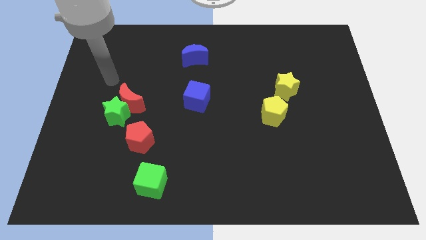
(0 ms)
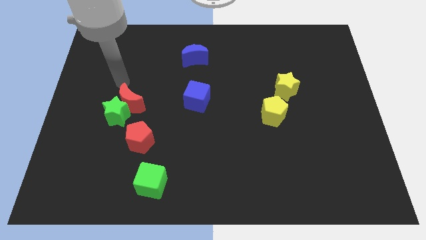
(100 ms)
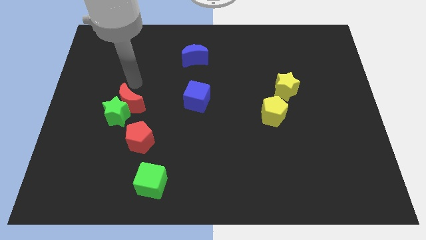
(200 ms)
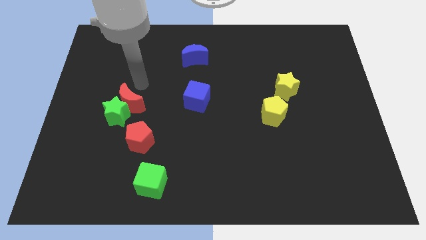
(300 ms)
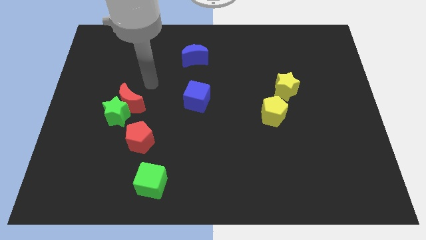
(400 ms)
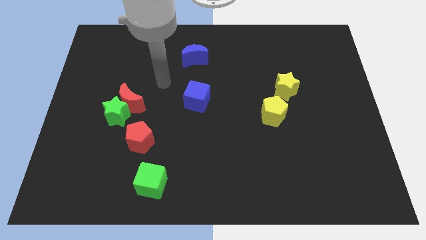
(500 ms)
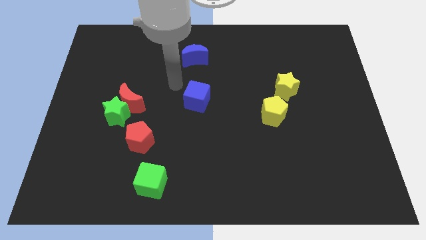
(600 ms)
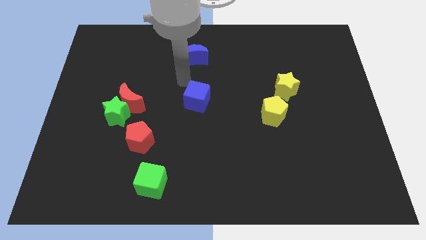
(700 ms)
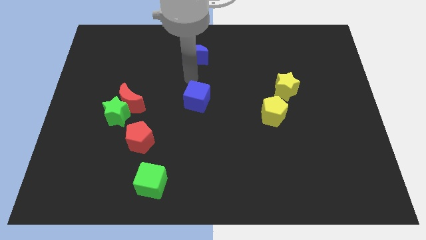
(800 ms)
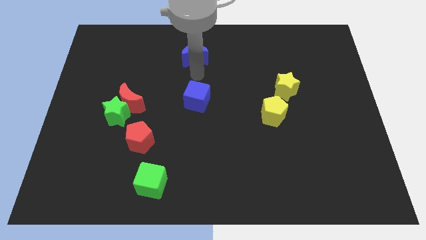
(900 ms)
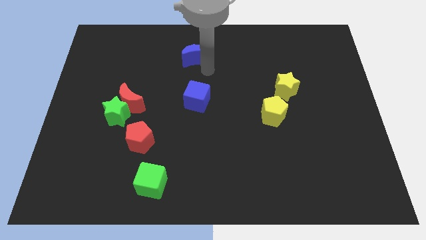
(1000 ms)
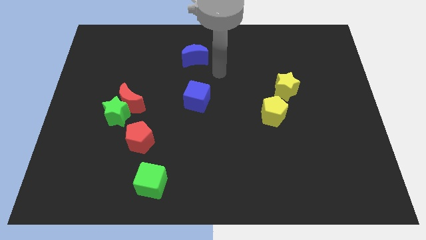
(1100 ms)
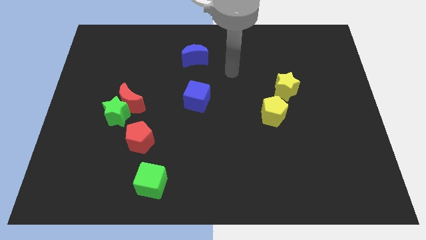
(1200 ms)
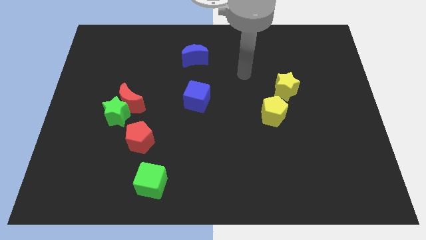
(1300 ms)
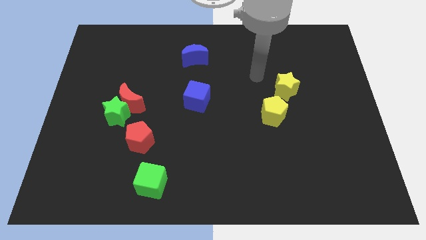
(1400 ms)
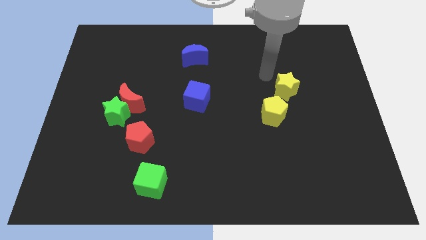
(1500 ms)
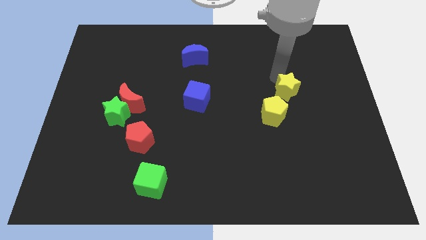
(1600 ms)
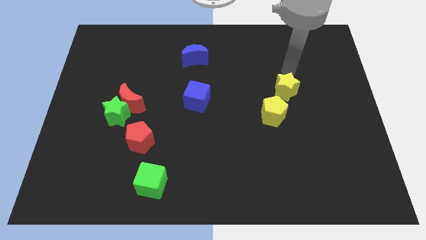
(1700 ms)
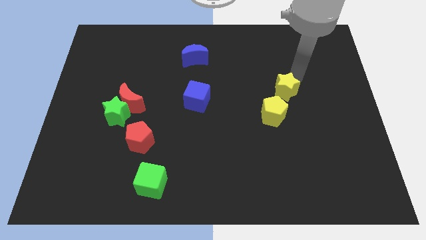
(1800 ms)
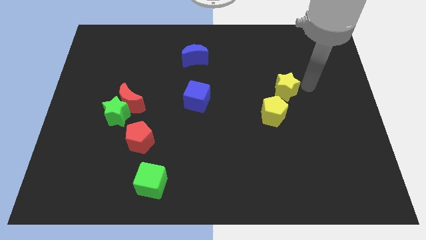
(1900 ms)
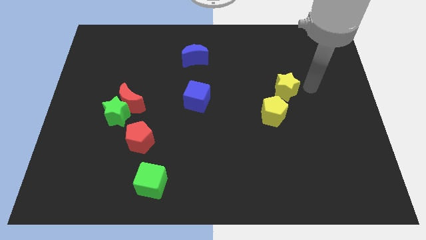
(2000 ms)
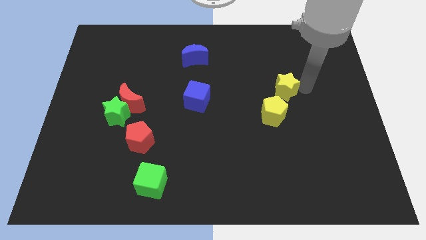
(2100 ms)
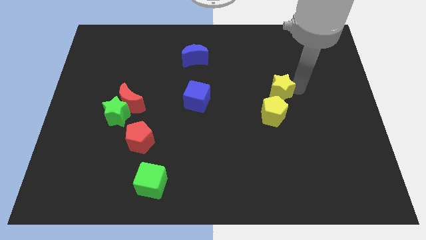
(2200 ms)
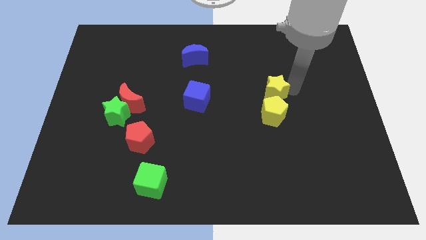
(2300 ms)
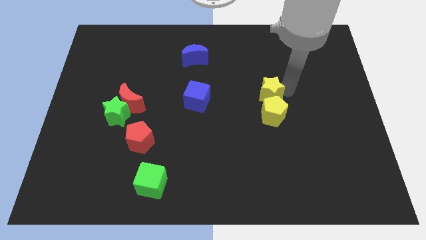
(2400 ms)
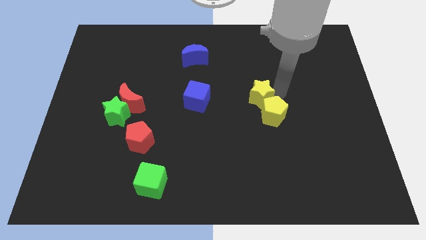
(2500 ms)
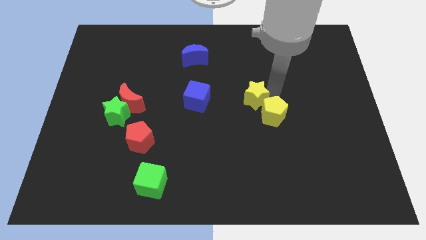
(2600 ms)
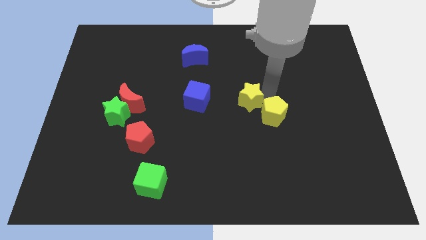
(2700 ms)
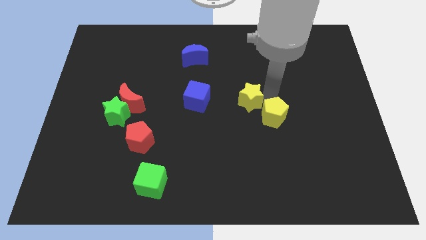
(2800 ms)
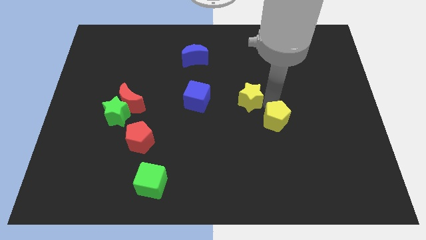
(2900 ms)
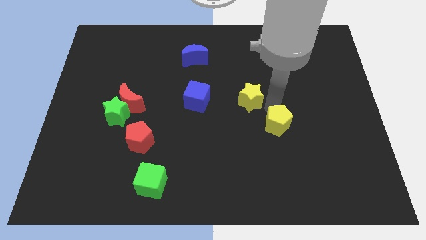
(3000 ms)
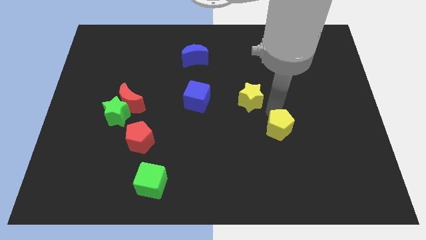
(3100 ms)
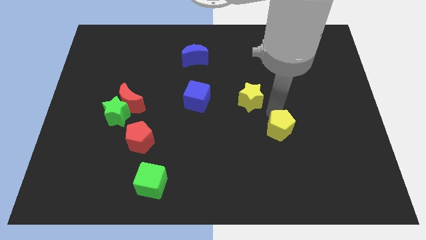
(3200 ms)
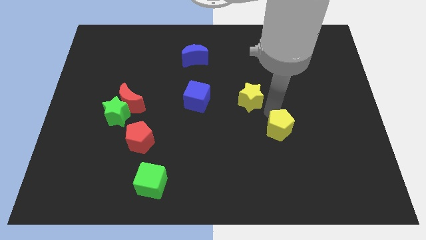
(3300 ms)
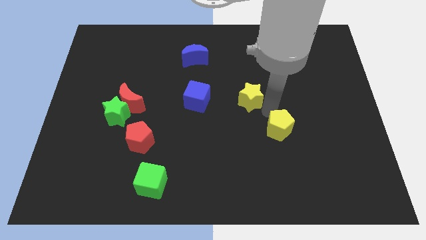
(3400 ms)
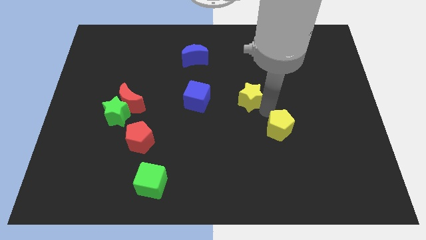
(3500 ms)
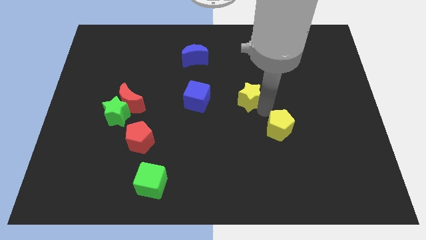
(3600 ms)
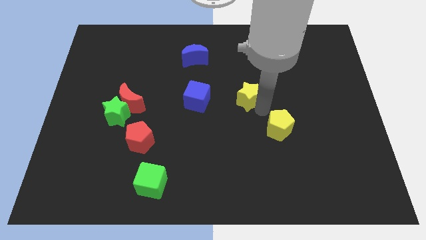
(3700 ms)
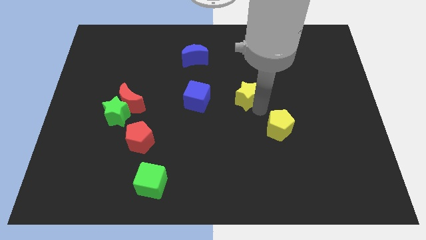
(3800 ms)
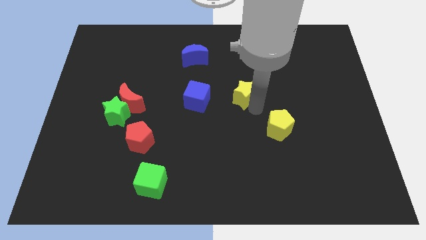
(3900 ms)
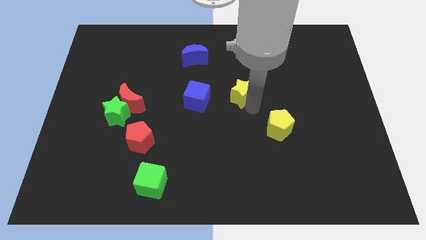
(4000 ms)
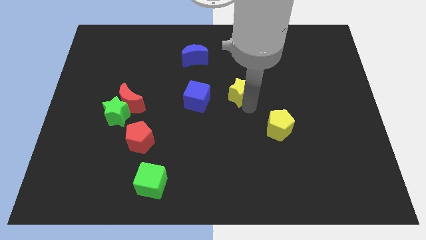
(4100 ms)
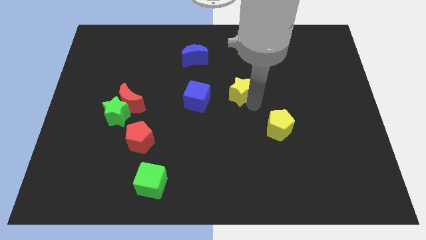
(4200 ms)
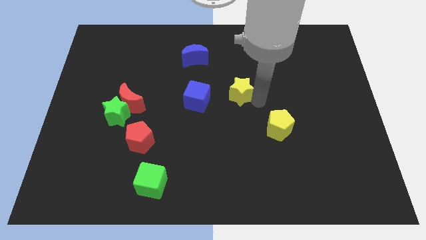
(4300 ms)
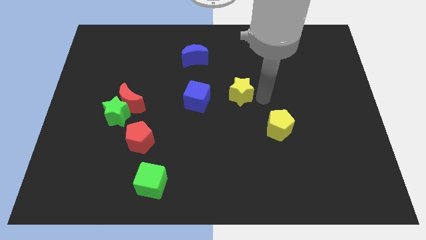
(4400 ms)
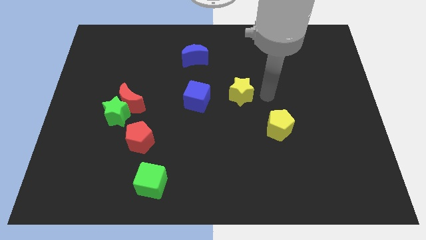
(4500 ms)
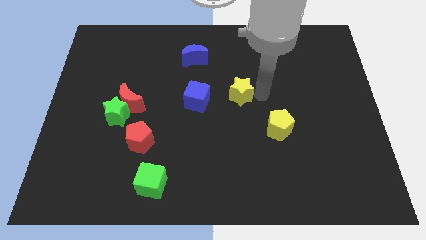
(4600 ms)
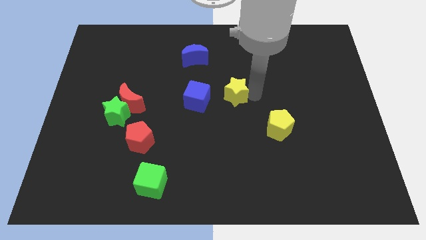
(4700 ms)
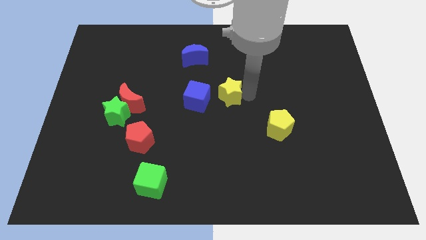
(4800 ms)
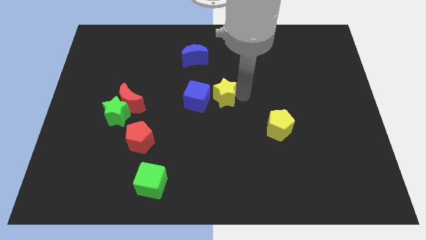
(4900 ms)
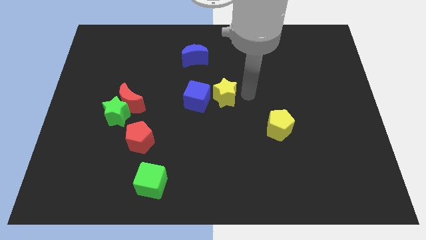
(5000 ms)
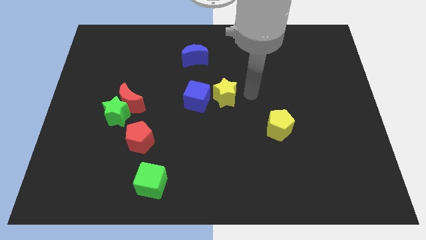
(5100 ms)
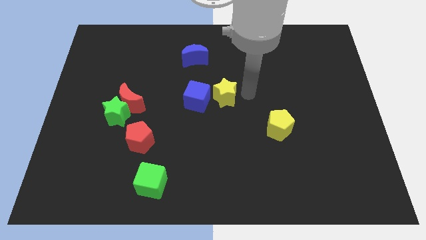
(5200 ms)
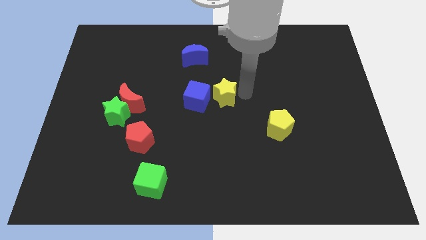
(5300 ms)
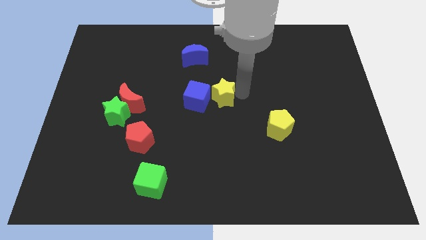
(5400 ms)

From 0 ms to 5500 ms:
put the yellow star next to the blue cube

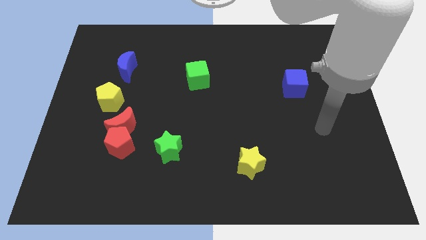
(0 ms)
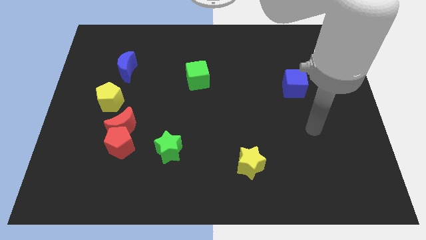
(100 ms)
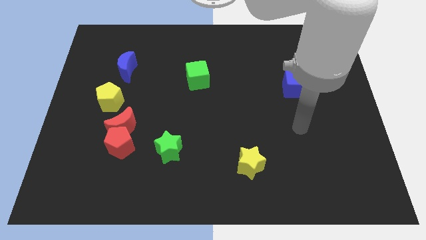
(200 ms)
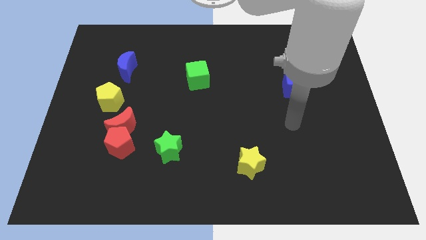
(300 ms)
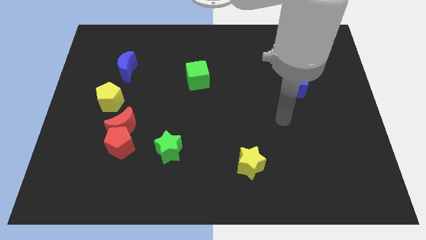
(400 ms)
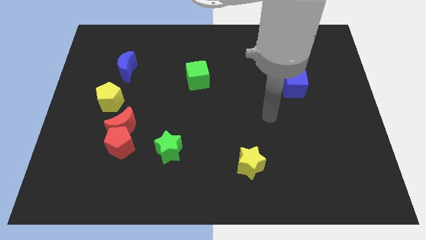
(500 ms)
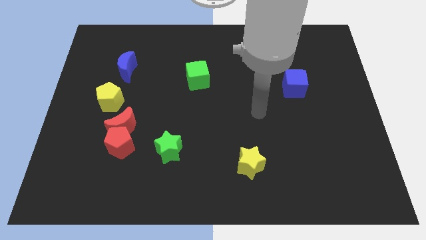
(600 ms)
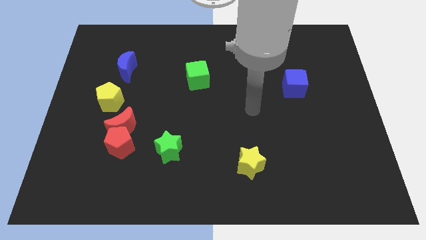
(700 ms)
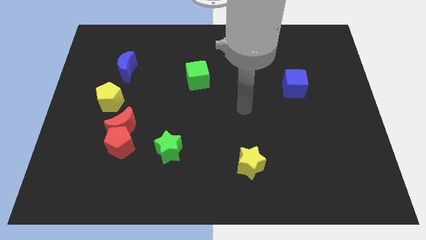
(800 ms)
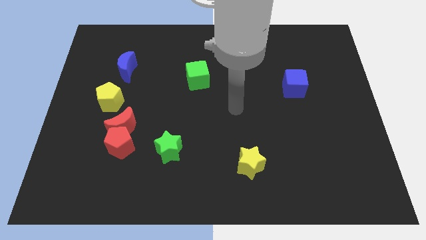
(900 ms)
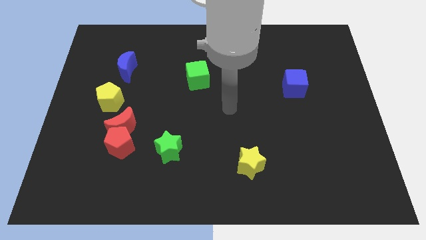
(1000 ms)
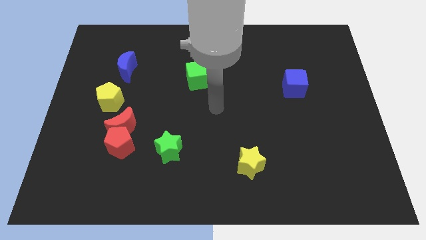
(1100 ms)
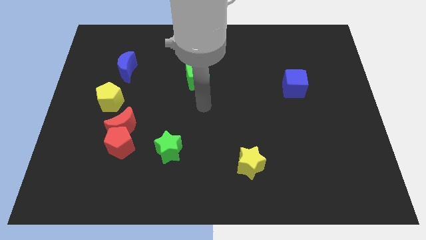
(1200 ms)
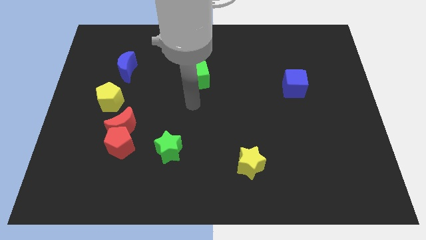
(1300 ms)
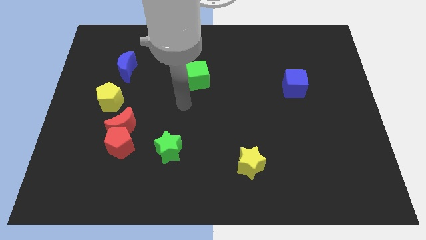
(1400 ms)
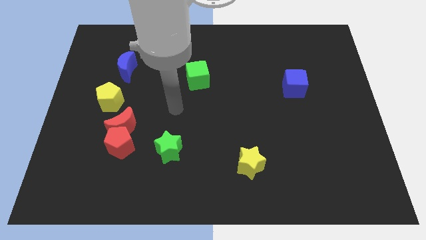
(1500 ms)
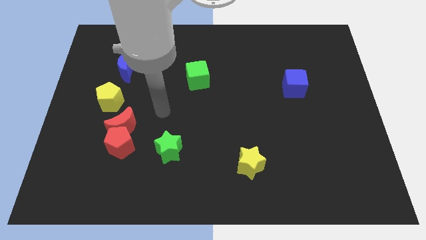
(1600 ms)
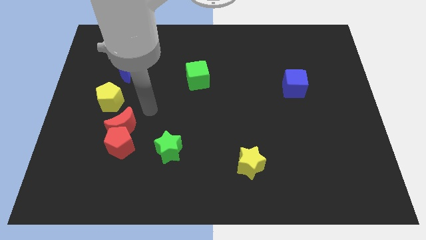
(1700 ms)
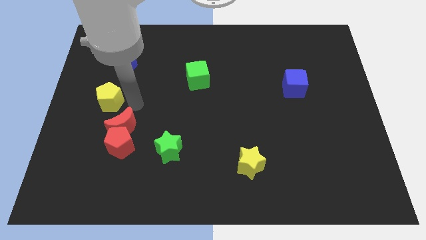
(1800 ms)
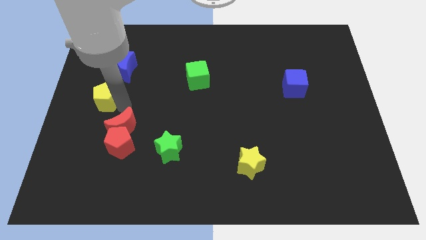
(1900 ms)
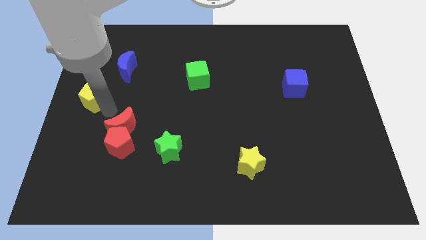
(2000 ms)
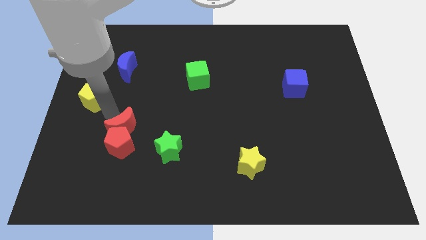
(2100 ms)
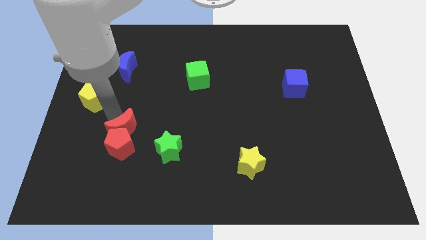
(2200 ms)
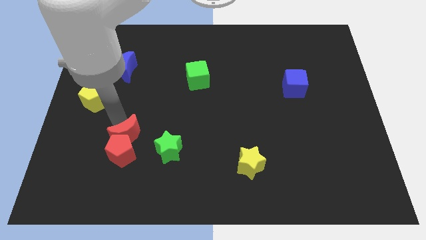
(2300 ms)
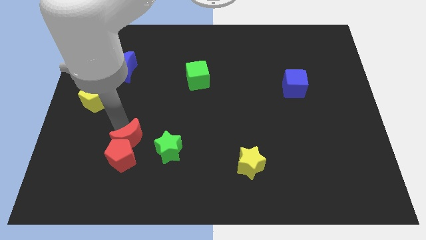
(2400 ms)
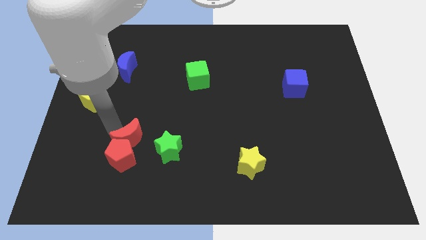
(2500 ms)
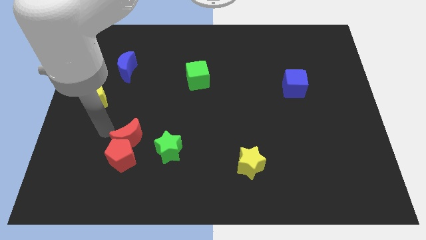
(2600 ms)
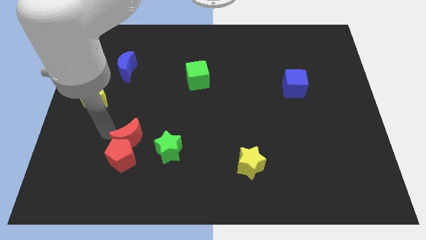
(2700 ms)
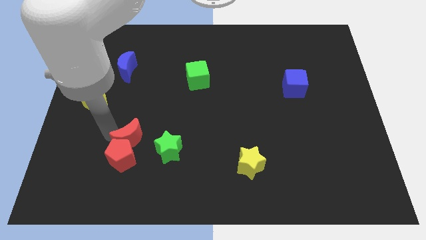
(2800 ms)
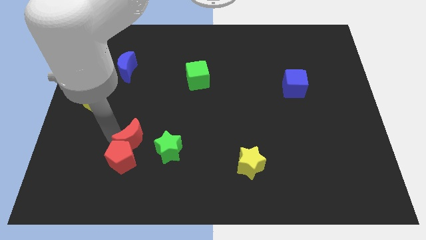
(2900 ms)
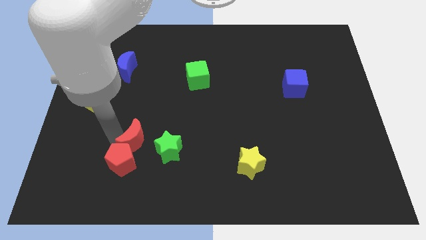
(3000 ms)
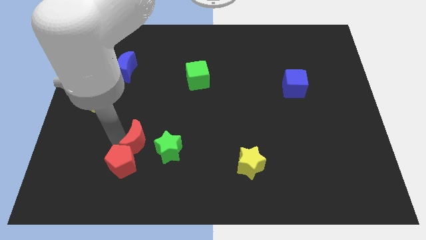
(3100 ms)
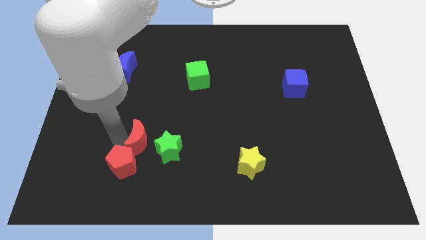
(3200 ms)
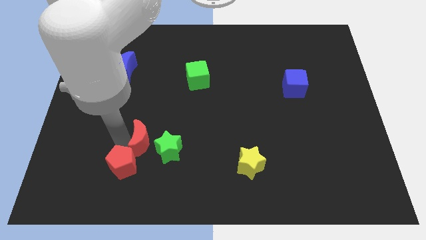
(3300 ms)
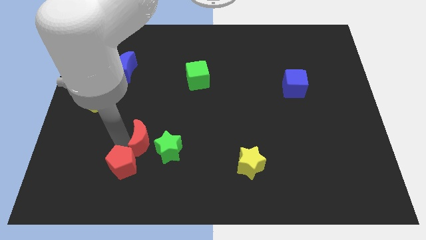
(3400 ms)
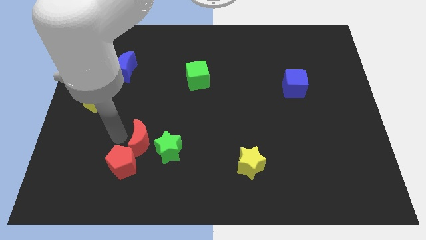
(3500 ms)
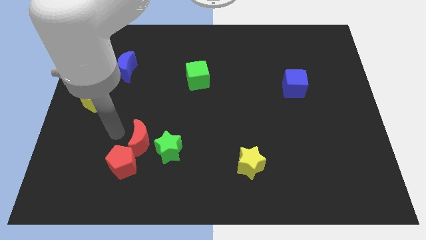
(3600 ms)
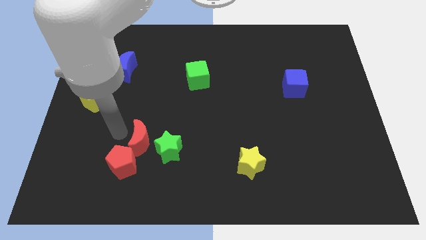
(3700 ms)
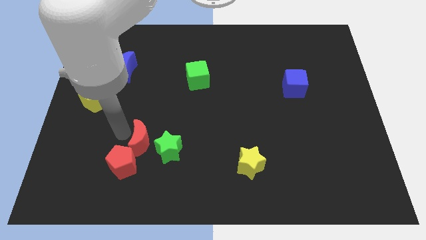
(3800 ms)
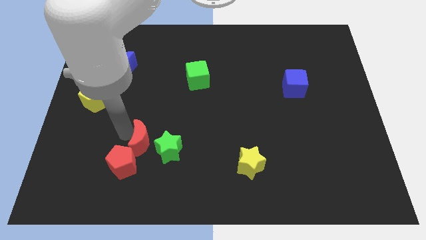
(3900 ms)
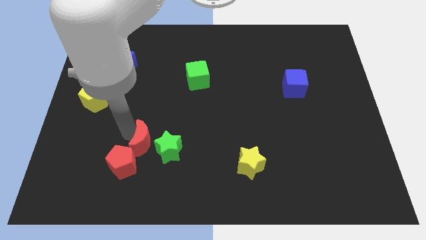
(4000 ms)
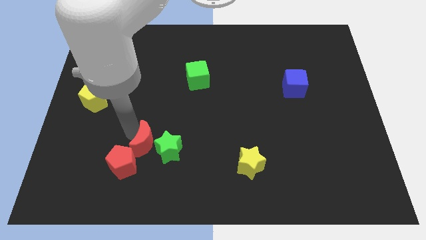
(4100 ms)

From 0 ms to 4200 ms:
put the red moon close to the green star
